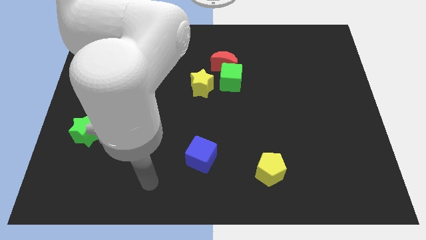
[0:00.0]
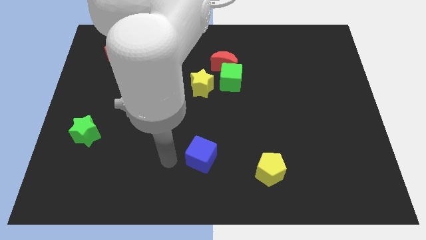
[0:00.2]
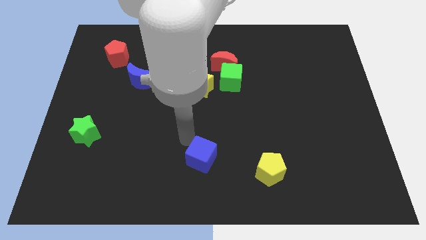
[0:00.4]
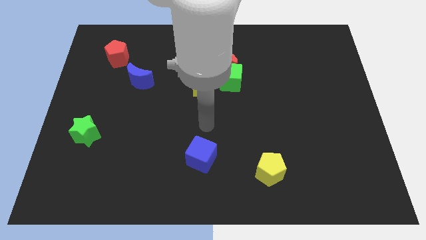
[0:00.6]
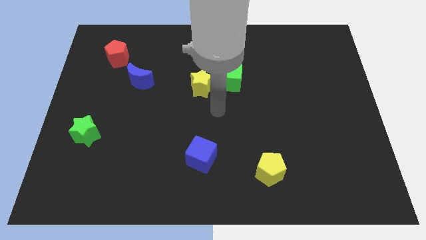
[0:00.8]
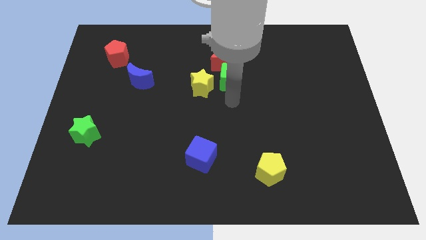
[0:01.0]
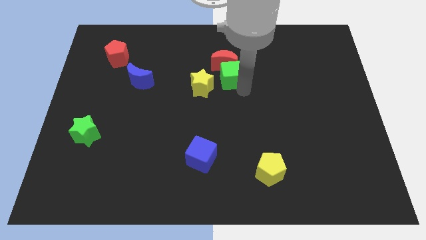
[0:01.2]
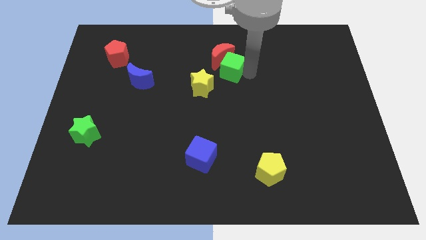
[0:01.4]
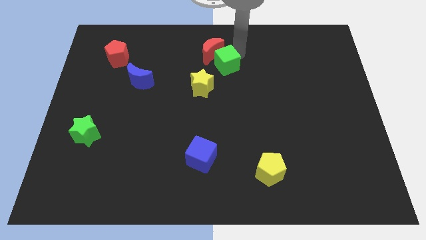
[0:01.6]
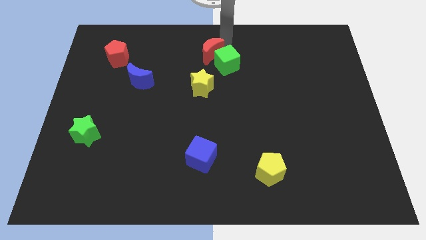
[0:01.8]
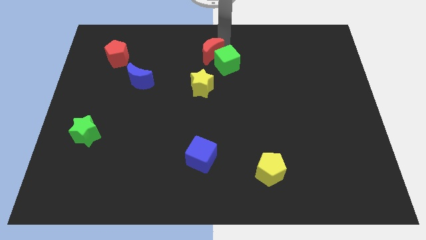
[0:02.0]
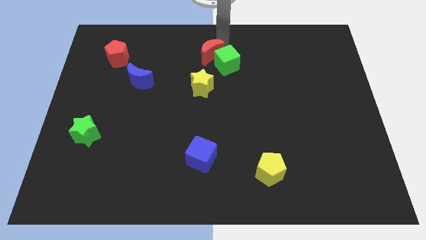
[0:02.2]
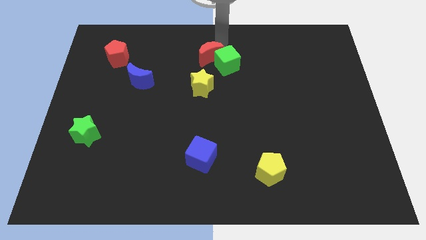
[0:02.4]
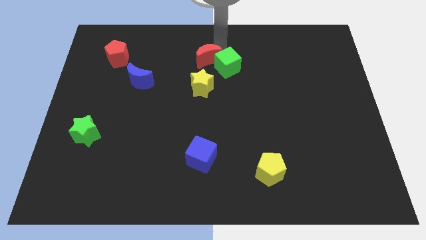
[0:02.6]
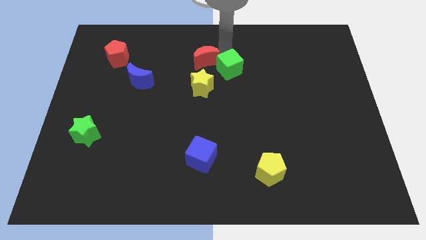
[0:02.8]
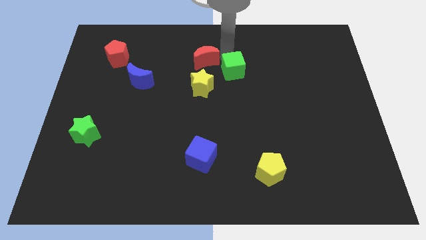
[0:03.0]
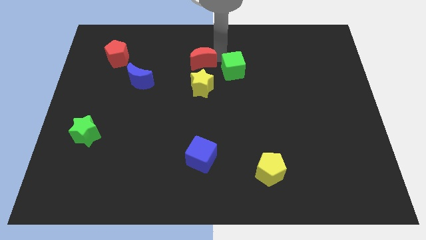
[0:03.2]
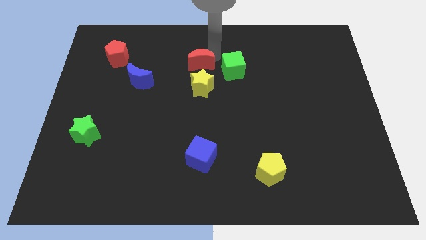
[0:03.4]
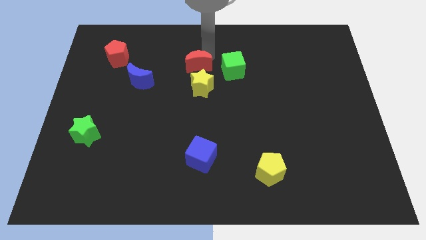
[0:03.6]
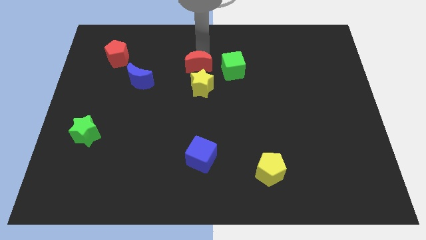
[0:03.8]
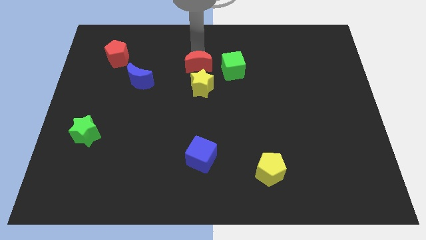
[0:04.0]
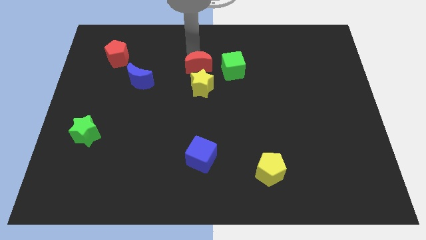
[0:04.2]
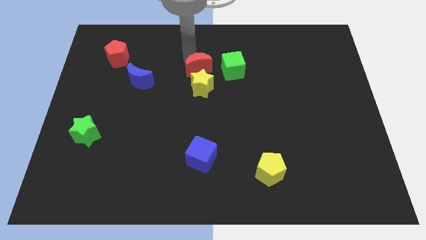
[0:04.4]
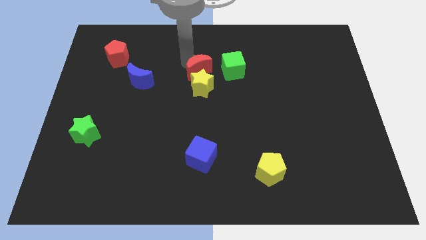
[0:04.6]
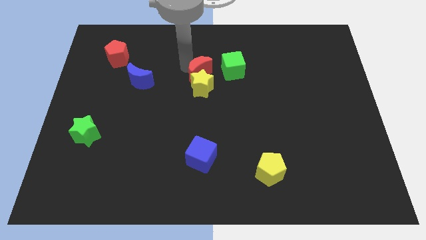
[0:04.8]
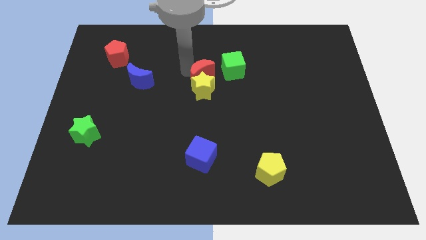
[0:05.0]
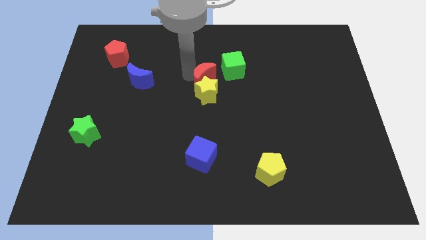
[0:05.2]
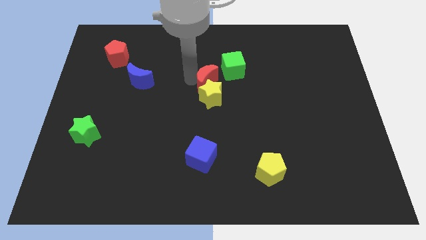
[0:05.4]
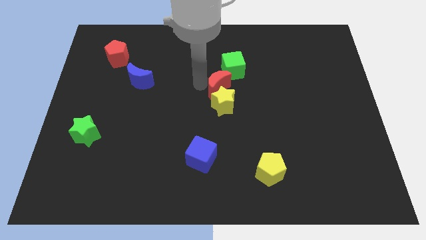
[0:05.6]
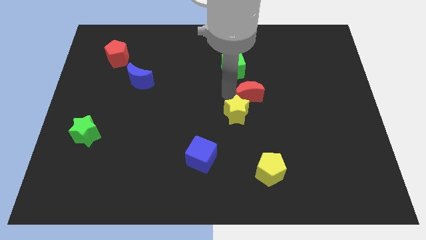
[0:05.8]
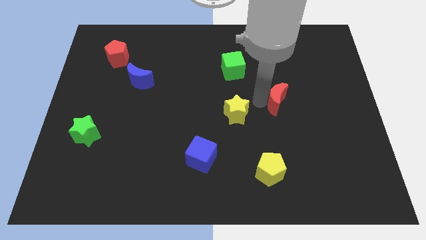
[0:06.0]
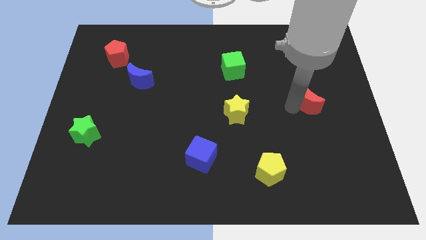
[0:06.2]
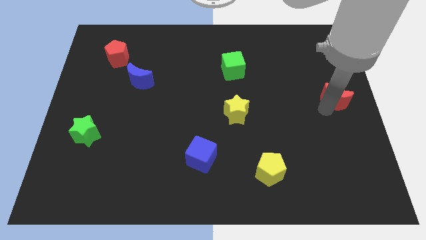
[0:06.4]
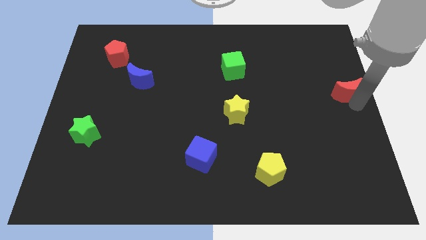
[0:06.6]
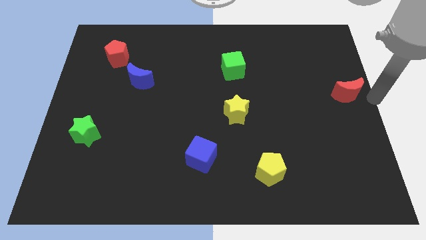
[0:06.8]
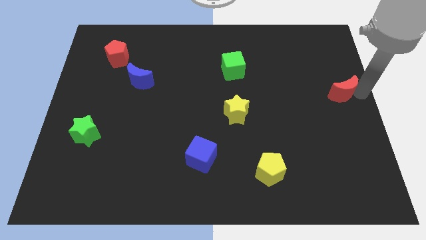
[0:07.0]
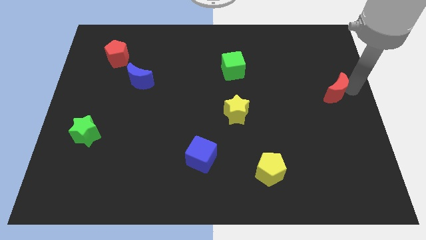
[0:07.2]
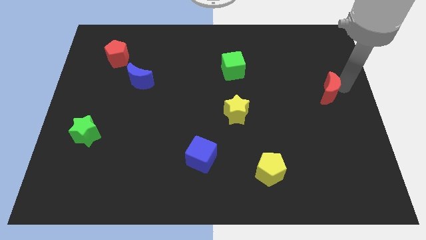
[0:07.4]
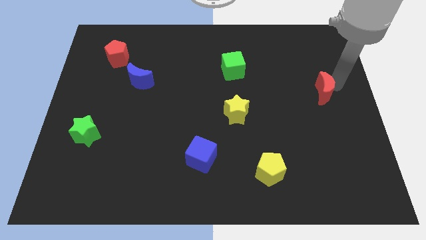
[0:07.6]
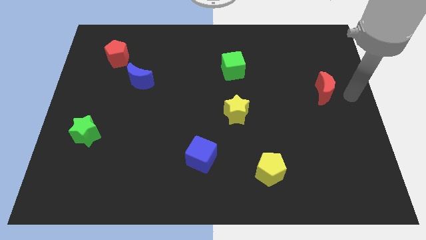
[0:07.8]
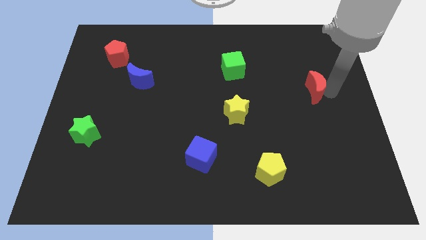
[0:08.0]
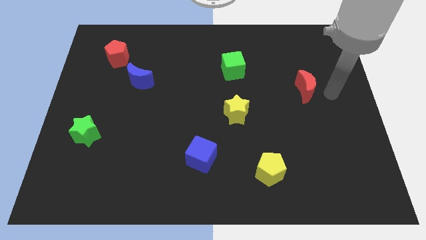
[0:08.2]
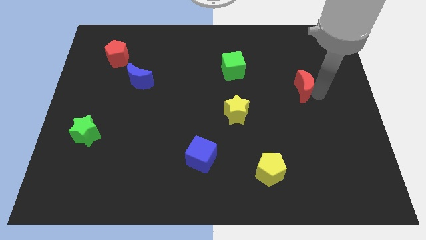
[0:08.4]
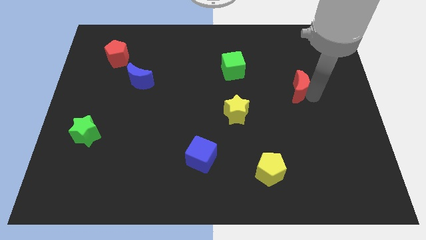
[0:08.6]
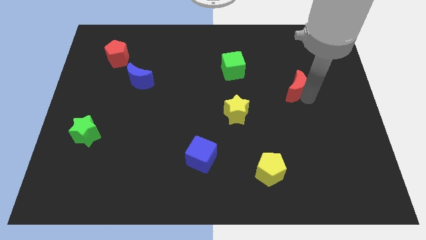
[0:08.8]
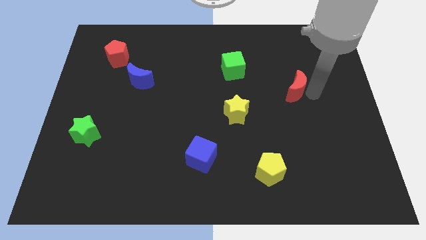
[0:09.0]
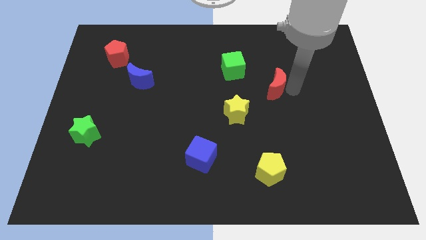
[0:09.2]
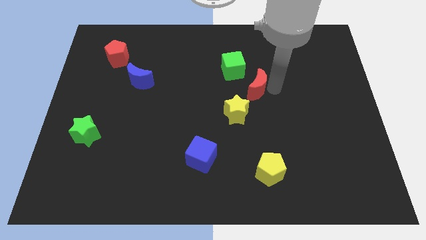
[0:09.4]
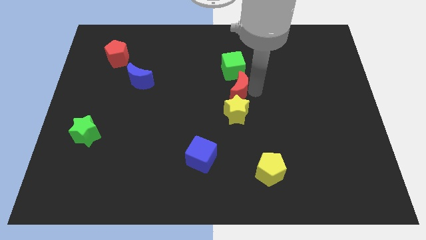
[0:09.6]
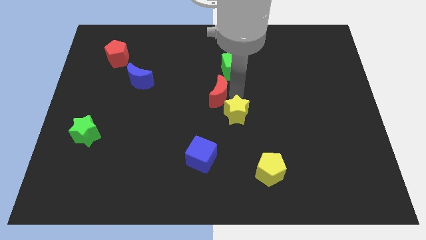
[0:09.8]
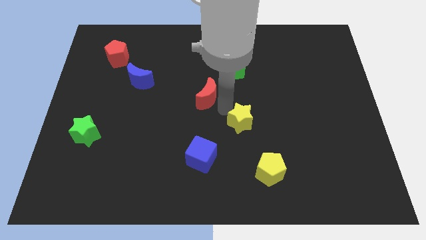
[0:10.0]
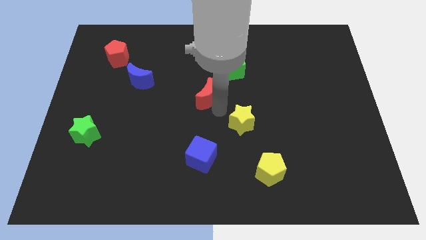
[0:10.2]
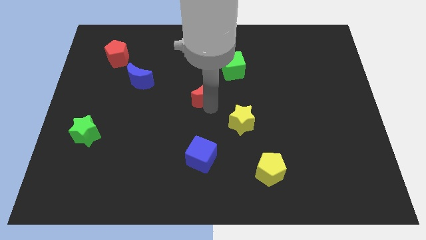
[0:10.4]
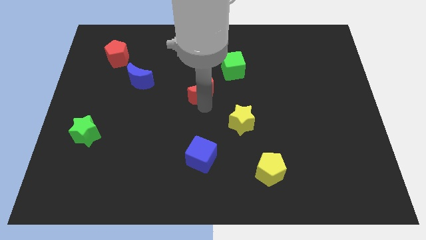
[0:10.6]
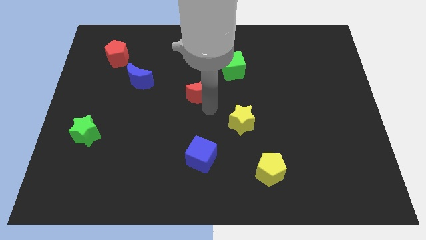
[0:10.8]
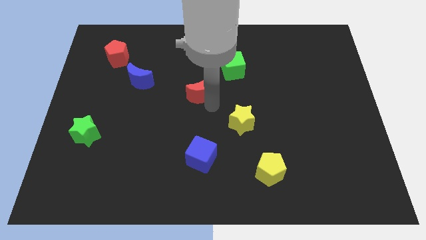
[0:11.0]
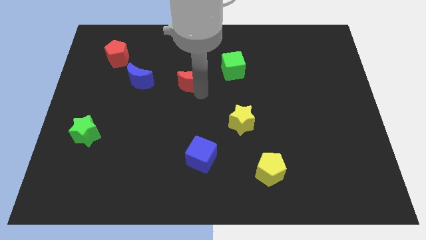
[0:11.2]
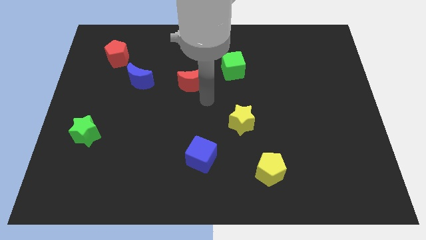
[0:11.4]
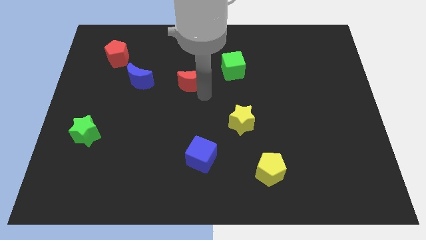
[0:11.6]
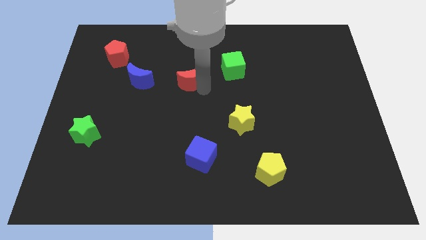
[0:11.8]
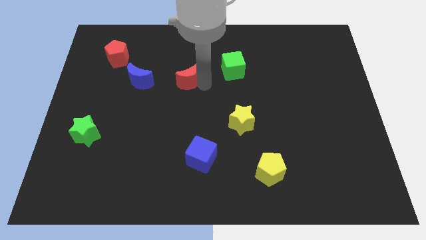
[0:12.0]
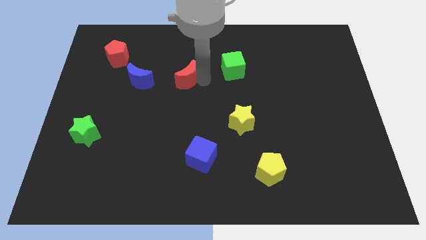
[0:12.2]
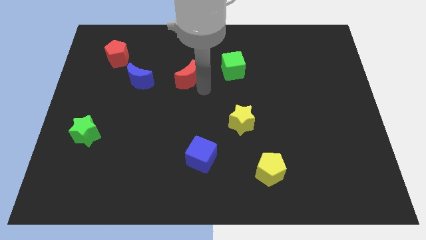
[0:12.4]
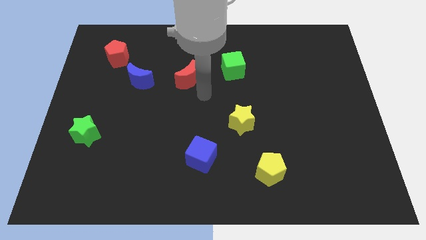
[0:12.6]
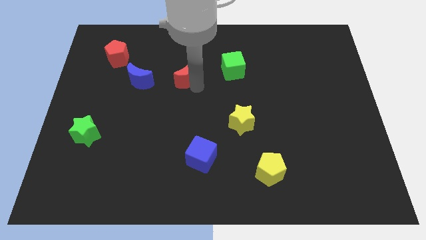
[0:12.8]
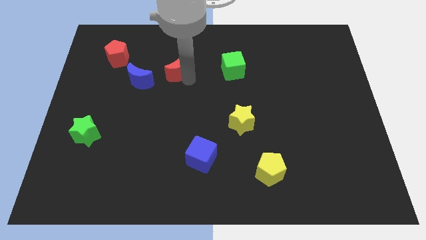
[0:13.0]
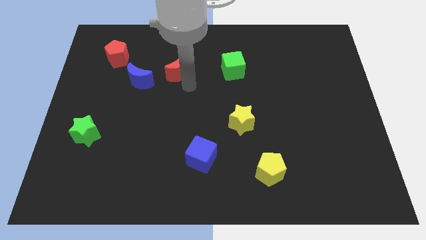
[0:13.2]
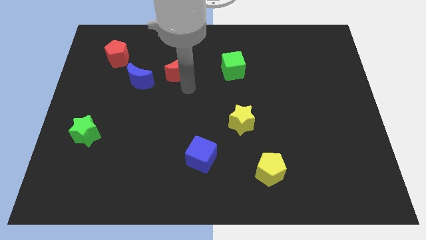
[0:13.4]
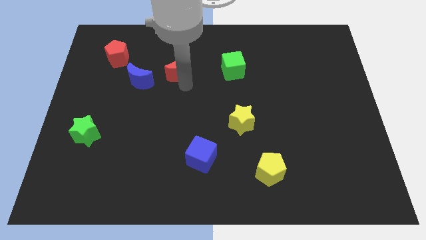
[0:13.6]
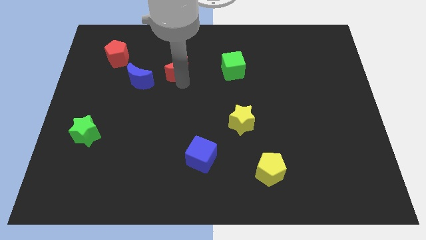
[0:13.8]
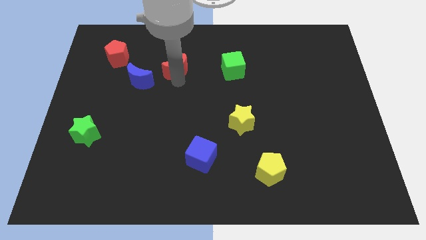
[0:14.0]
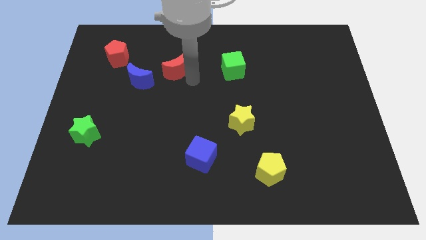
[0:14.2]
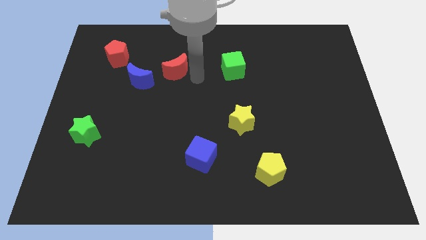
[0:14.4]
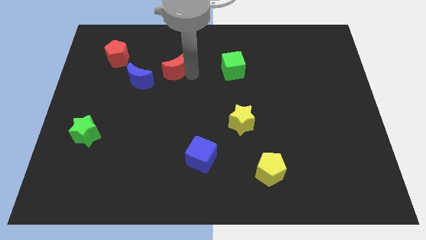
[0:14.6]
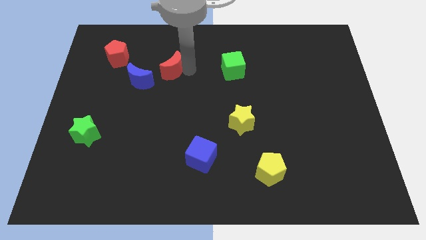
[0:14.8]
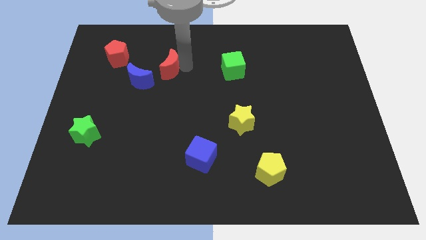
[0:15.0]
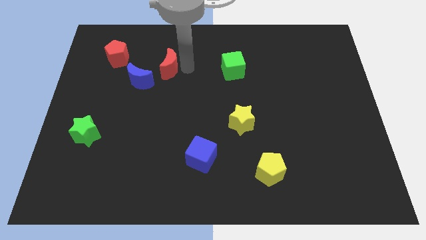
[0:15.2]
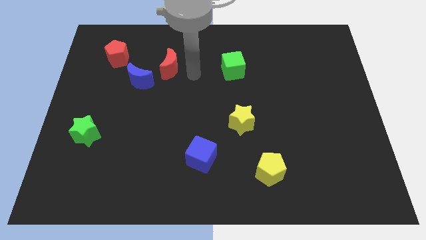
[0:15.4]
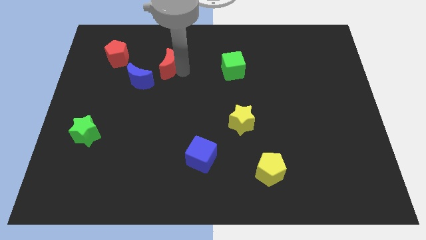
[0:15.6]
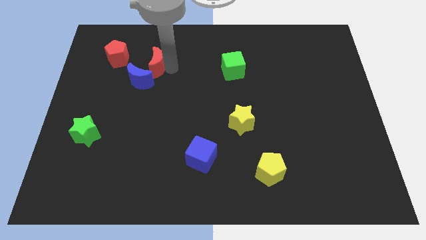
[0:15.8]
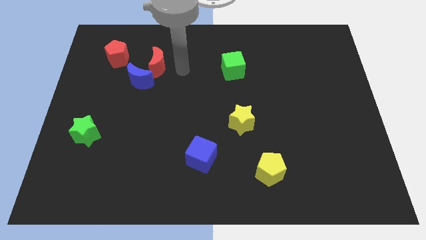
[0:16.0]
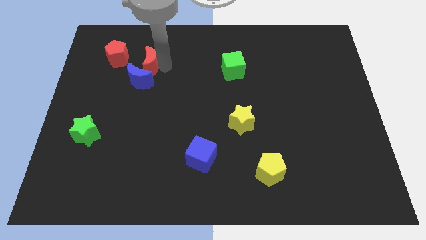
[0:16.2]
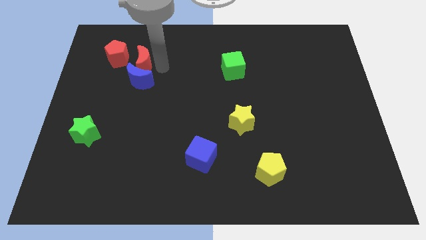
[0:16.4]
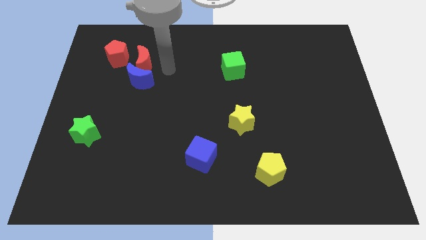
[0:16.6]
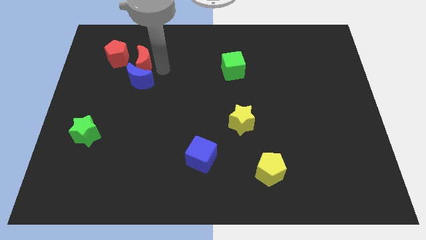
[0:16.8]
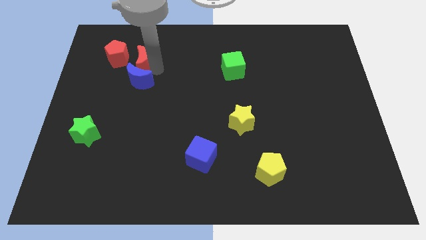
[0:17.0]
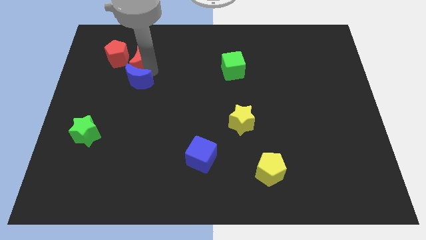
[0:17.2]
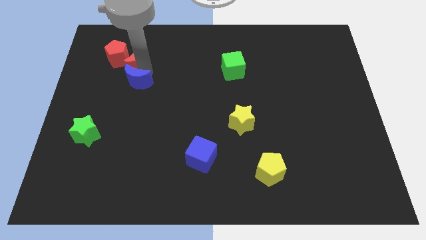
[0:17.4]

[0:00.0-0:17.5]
move the red moon close to the red pentagon

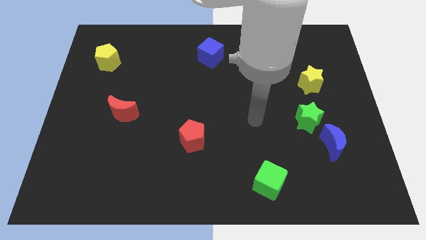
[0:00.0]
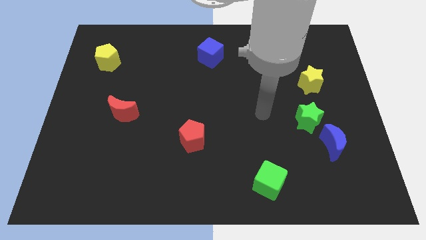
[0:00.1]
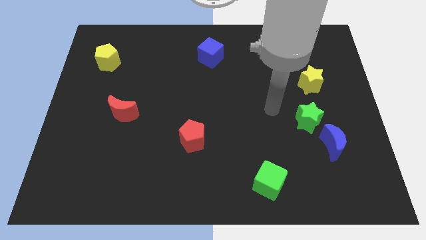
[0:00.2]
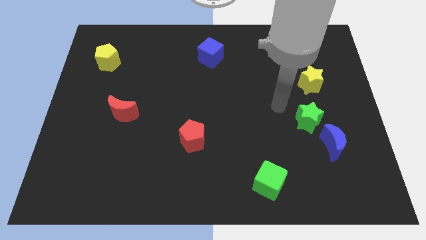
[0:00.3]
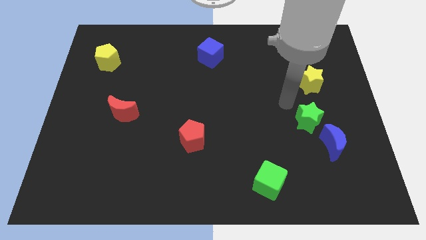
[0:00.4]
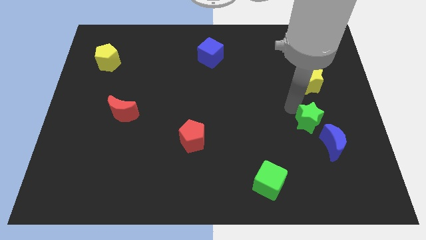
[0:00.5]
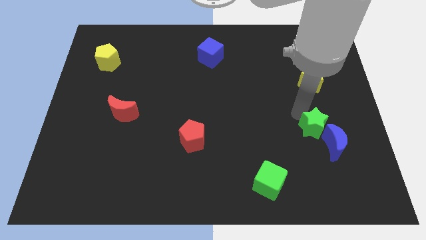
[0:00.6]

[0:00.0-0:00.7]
push the green star next to the blue moon
